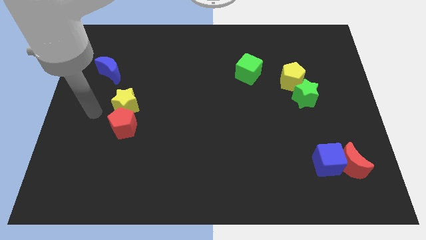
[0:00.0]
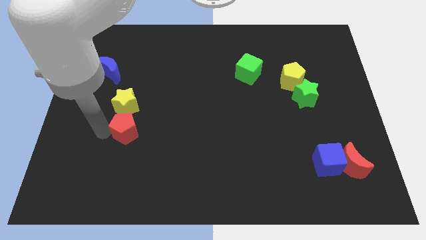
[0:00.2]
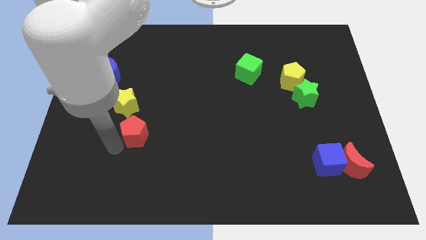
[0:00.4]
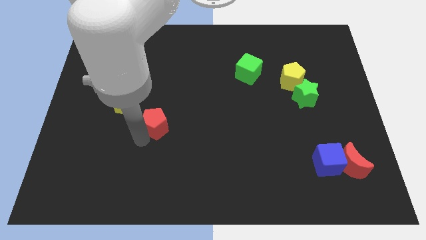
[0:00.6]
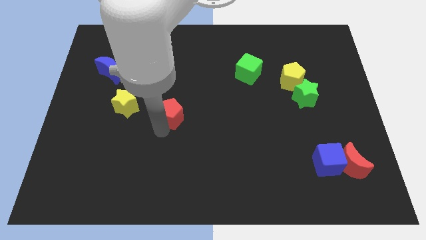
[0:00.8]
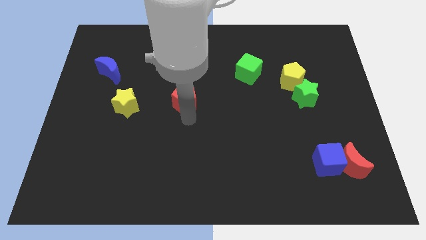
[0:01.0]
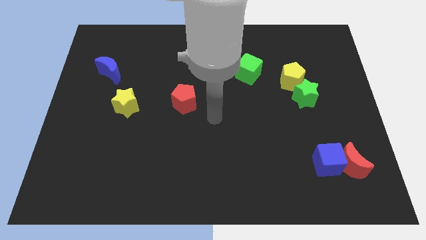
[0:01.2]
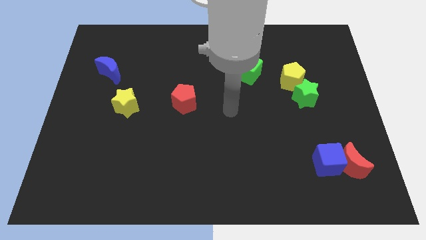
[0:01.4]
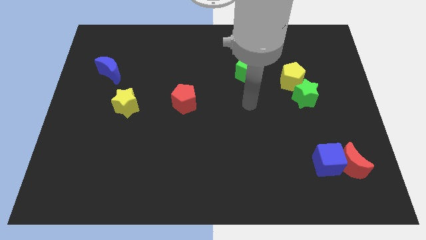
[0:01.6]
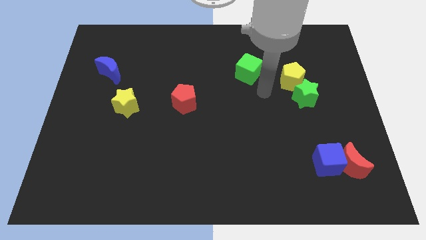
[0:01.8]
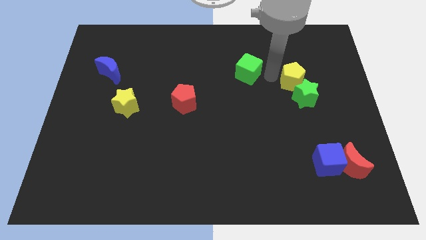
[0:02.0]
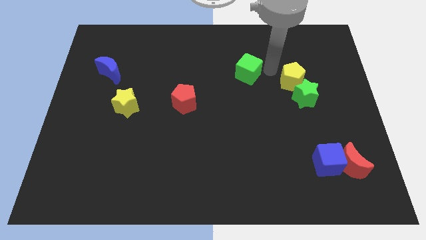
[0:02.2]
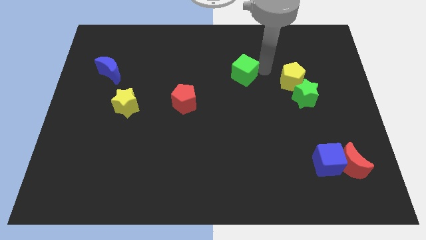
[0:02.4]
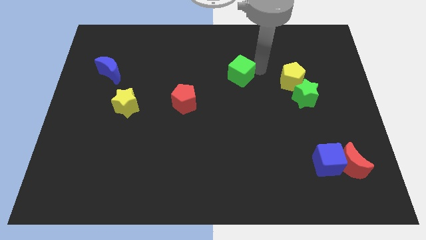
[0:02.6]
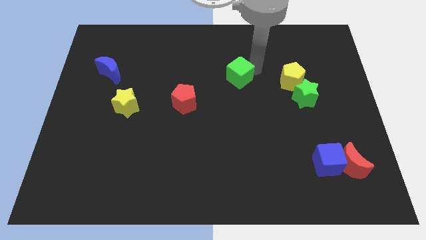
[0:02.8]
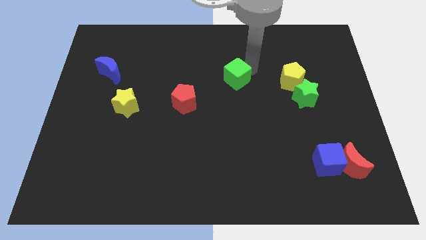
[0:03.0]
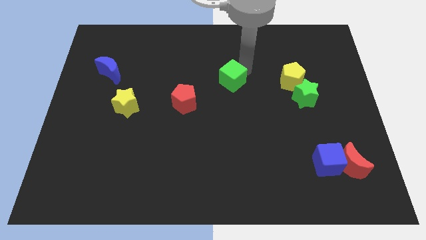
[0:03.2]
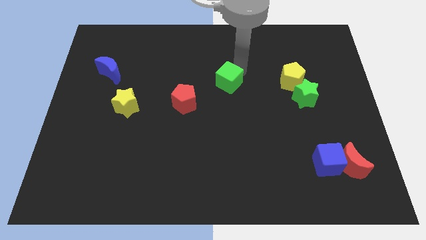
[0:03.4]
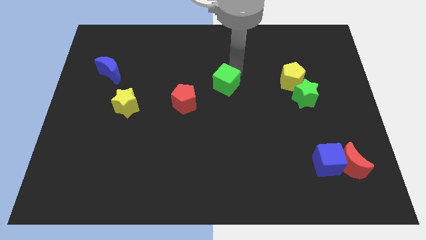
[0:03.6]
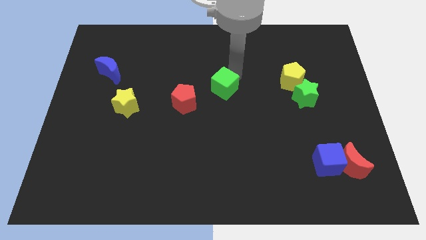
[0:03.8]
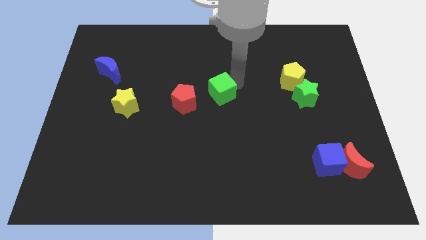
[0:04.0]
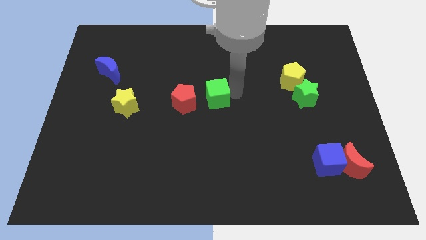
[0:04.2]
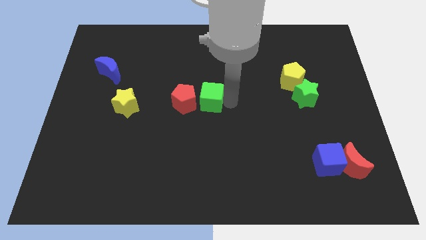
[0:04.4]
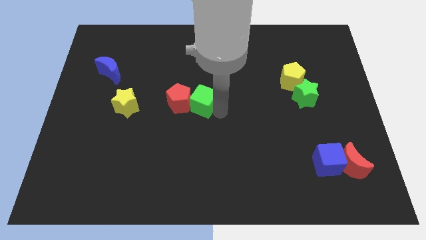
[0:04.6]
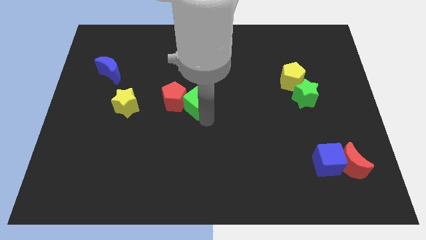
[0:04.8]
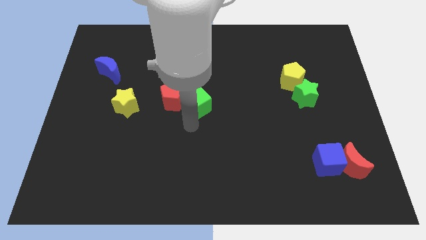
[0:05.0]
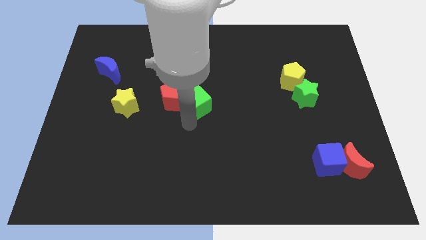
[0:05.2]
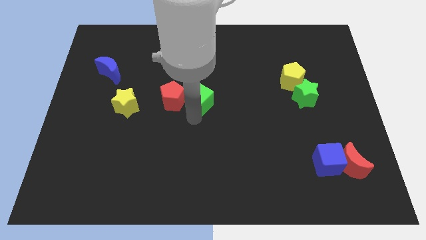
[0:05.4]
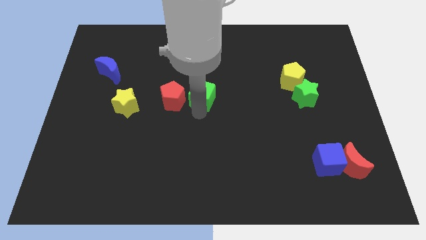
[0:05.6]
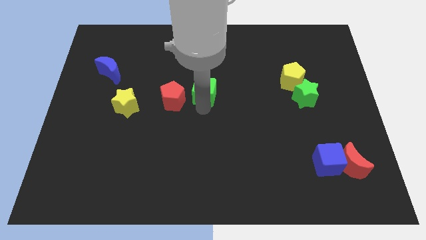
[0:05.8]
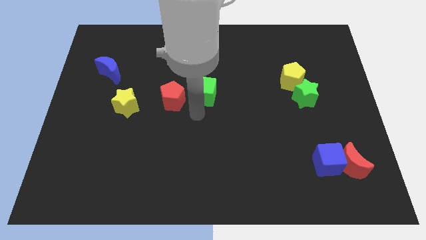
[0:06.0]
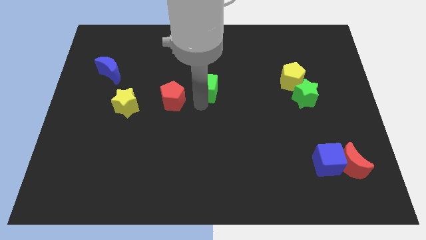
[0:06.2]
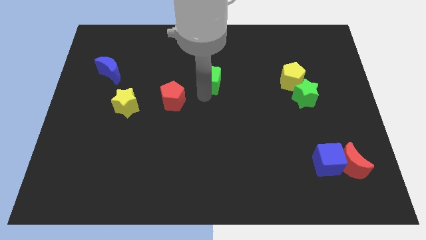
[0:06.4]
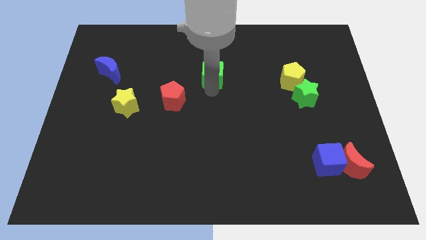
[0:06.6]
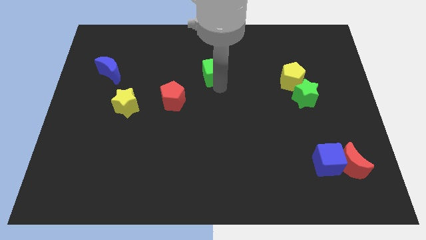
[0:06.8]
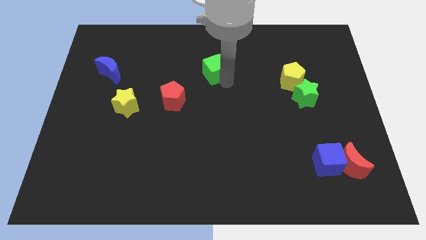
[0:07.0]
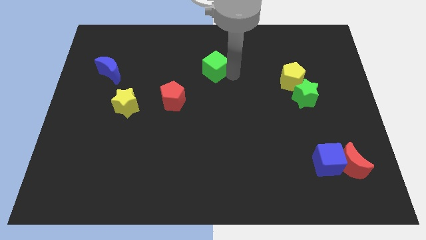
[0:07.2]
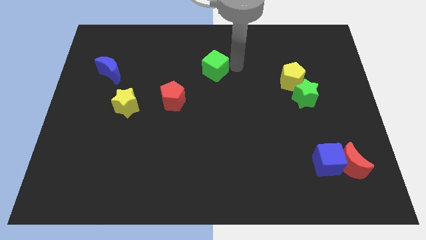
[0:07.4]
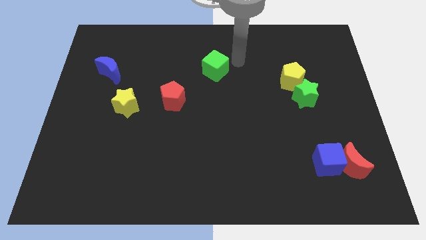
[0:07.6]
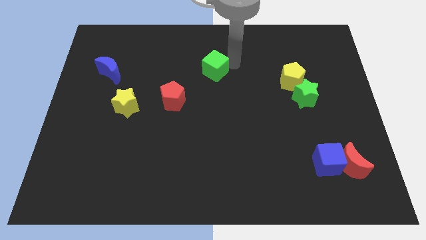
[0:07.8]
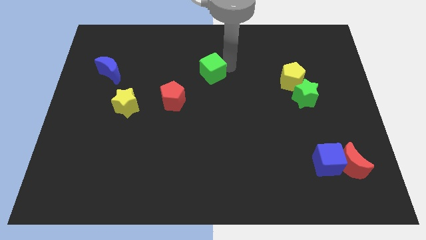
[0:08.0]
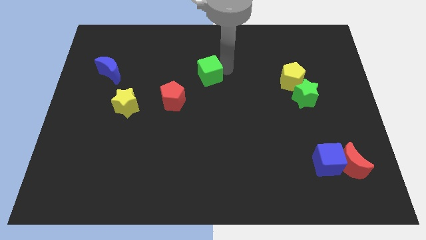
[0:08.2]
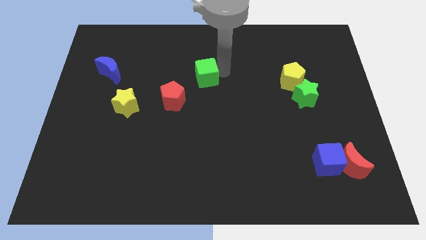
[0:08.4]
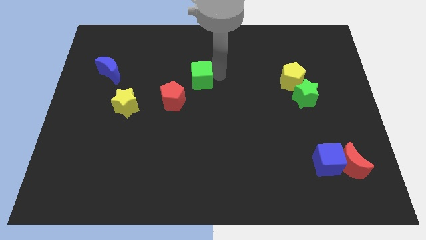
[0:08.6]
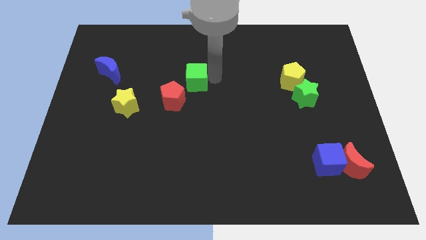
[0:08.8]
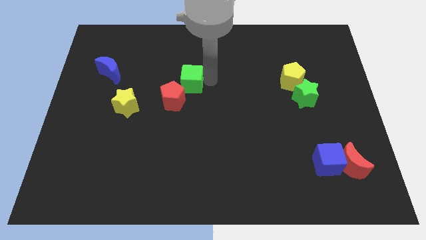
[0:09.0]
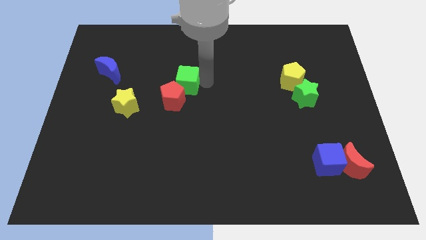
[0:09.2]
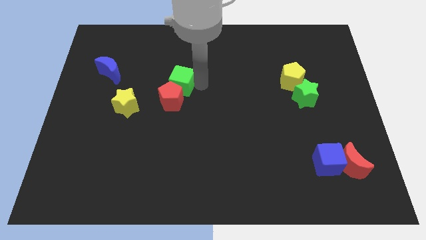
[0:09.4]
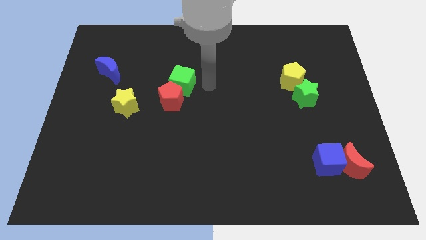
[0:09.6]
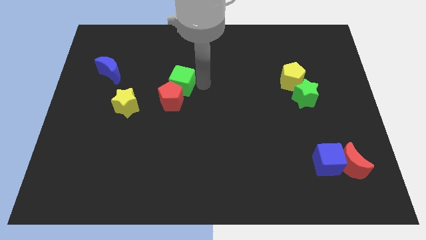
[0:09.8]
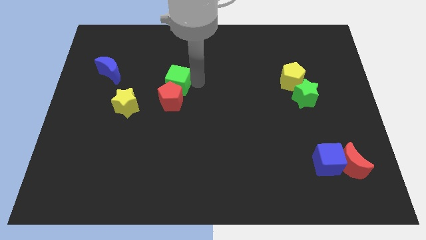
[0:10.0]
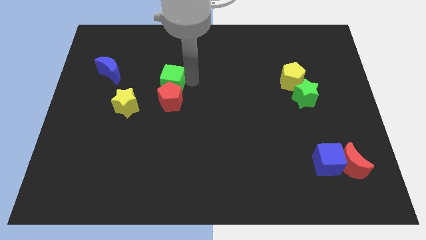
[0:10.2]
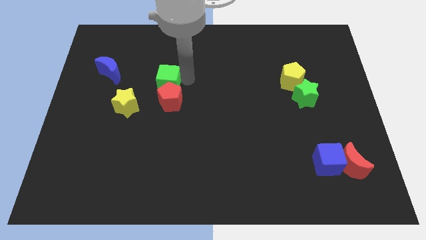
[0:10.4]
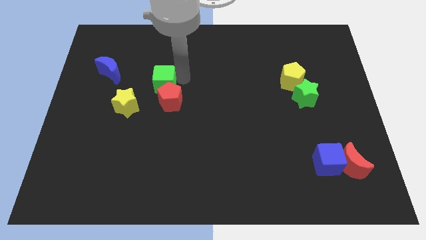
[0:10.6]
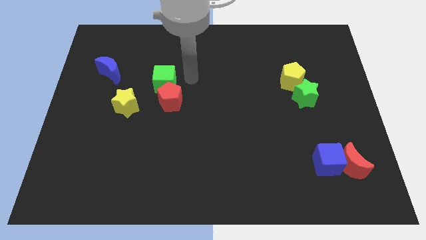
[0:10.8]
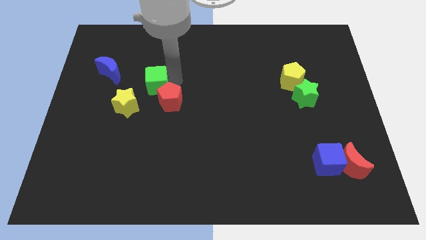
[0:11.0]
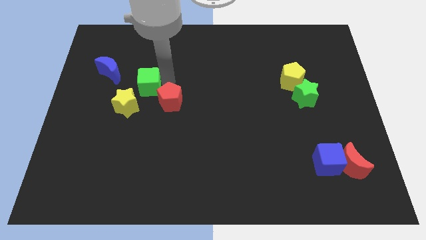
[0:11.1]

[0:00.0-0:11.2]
slide the green cube to the bottom right of the blue moon

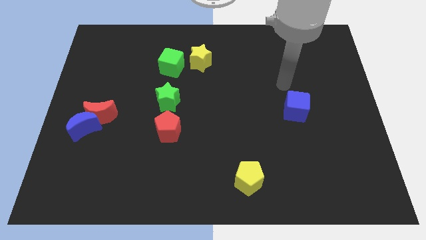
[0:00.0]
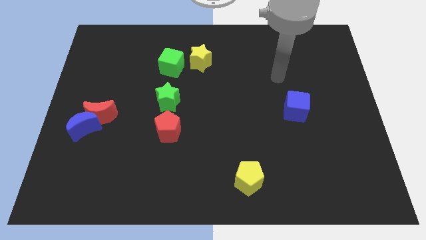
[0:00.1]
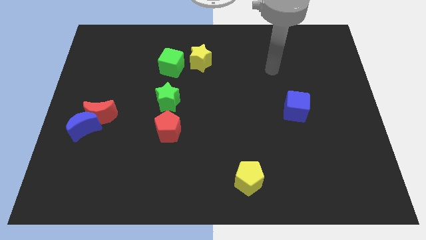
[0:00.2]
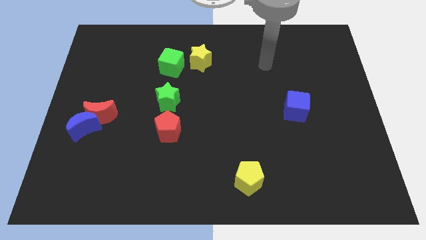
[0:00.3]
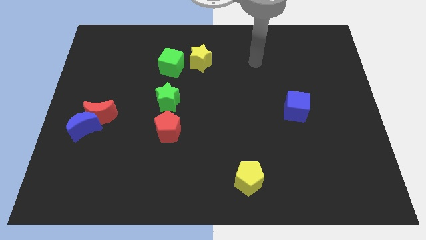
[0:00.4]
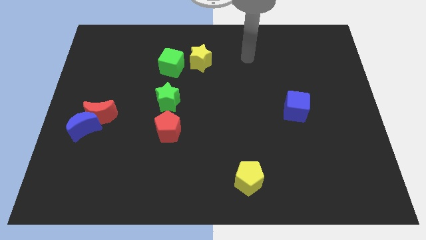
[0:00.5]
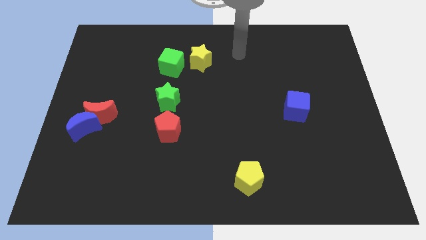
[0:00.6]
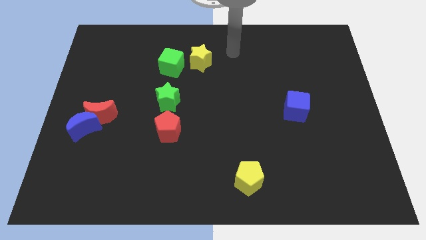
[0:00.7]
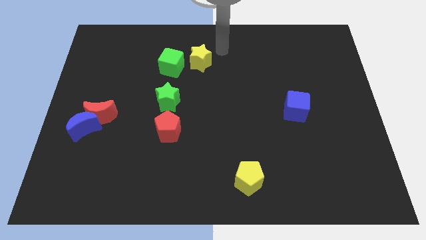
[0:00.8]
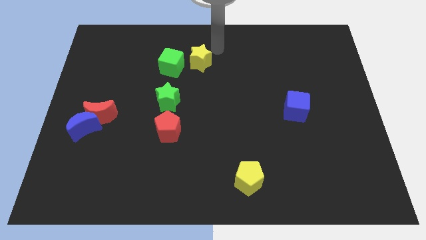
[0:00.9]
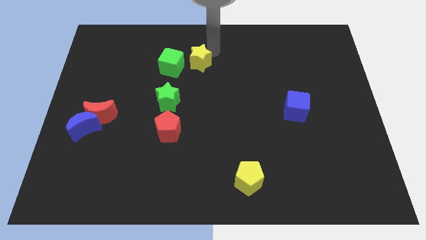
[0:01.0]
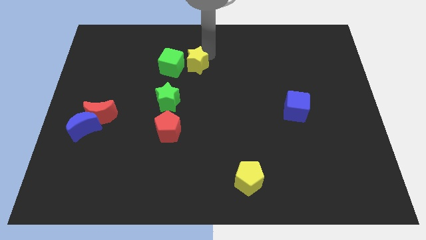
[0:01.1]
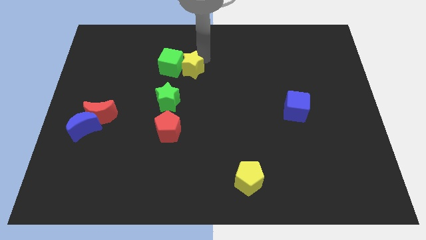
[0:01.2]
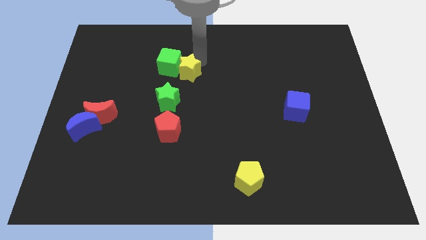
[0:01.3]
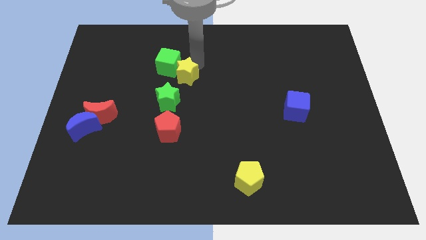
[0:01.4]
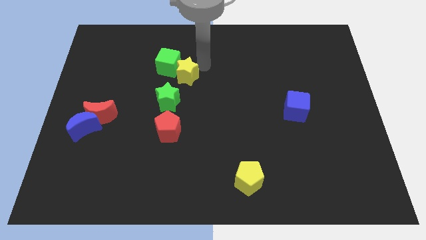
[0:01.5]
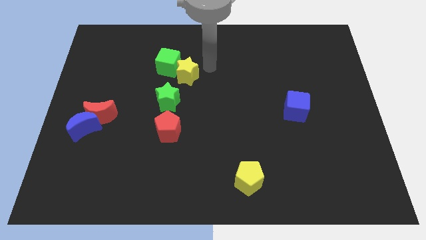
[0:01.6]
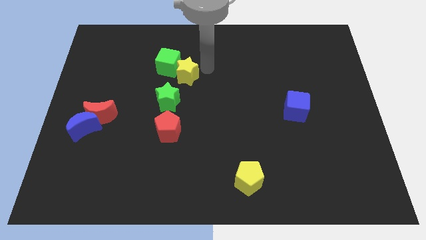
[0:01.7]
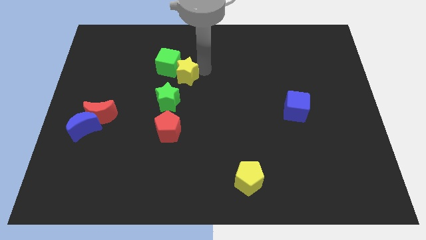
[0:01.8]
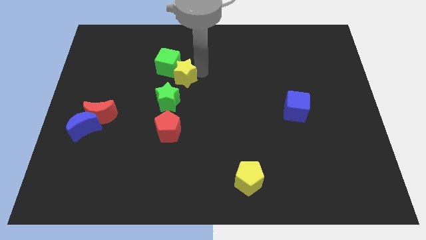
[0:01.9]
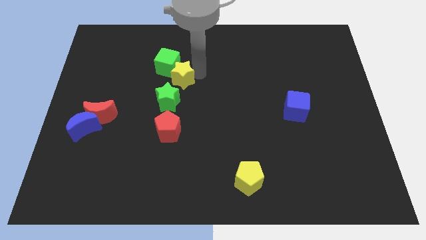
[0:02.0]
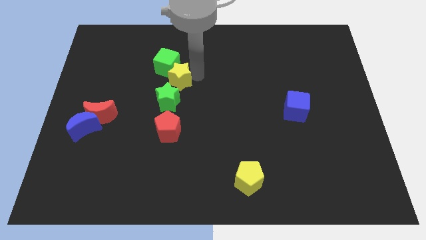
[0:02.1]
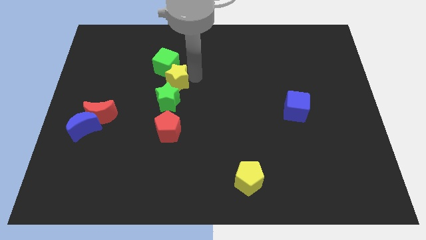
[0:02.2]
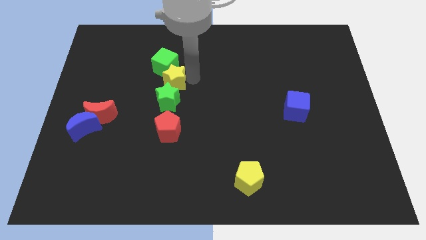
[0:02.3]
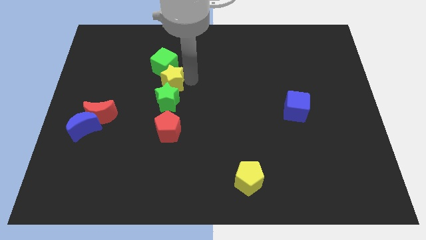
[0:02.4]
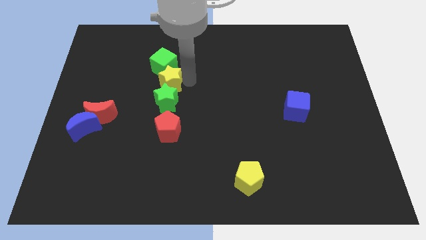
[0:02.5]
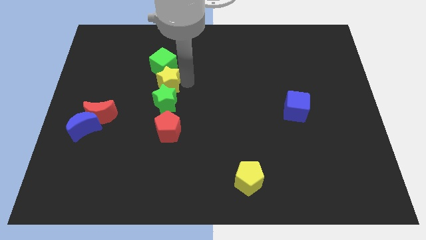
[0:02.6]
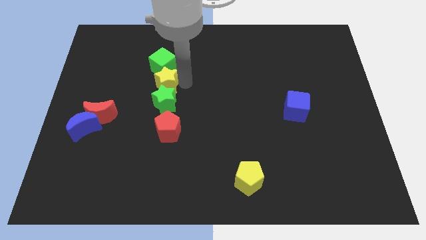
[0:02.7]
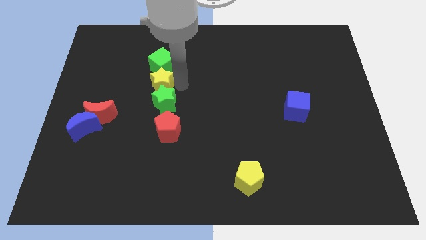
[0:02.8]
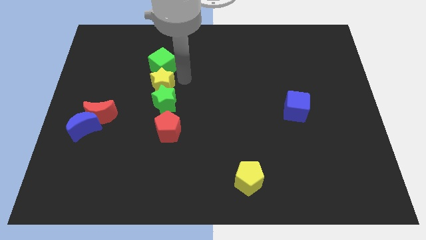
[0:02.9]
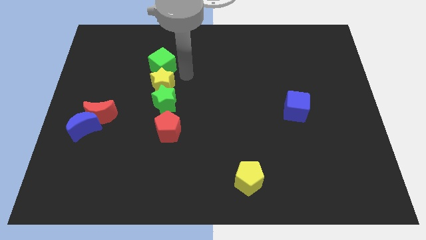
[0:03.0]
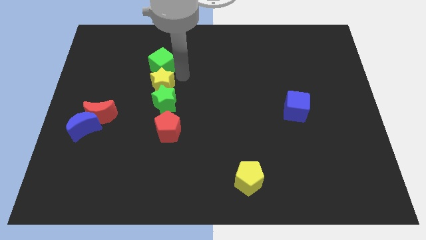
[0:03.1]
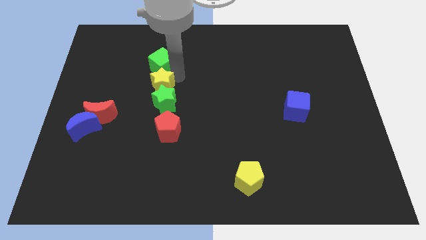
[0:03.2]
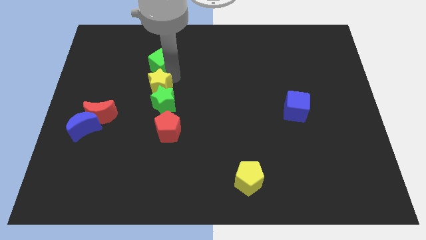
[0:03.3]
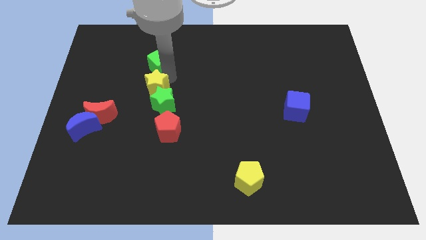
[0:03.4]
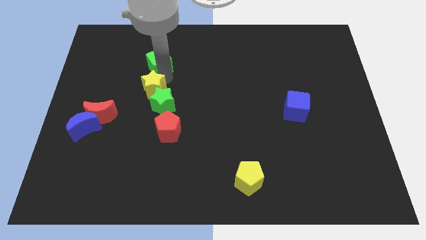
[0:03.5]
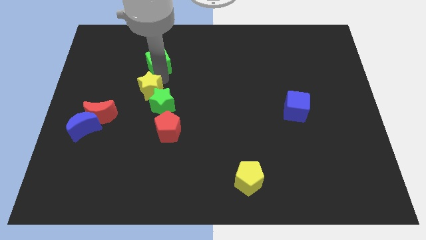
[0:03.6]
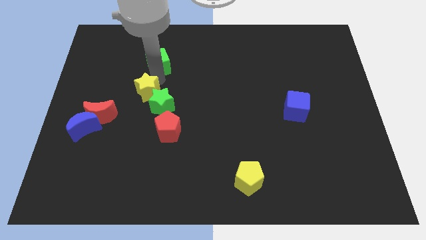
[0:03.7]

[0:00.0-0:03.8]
push the yellow star to the left side of the green star
